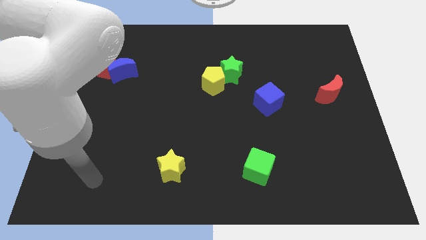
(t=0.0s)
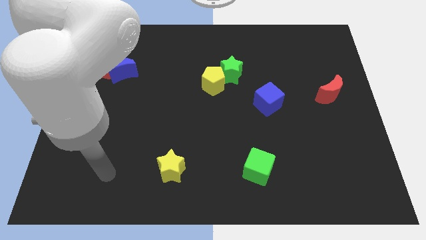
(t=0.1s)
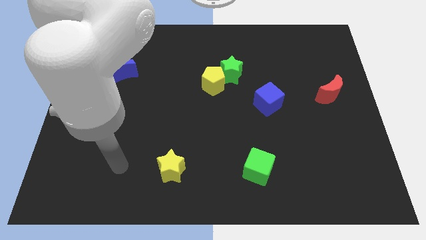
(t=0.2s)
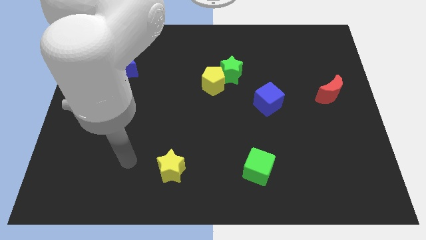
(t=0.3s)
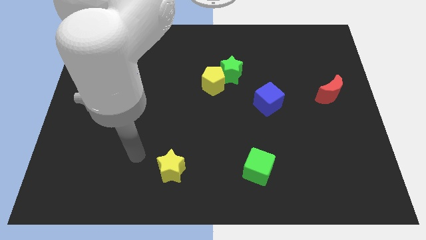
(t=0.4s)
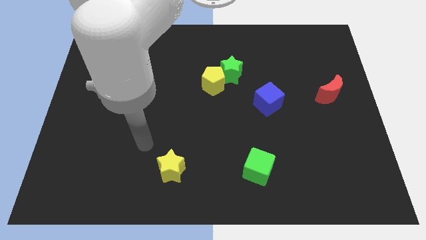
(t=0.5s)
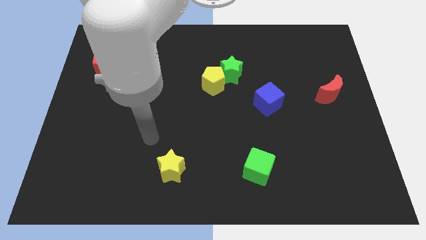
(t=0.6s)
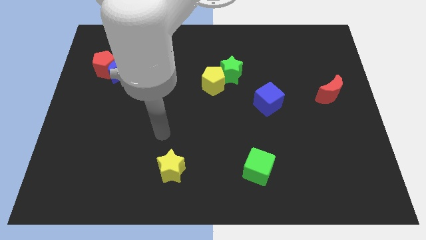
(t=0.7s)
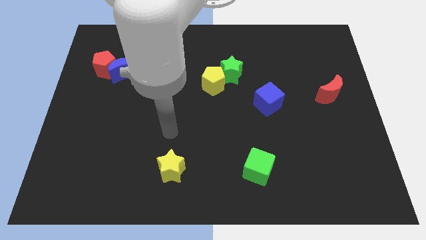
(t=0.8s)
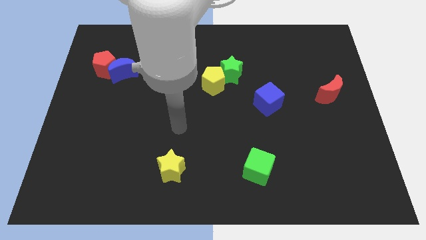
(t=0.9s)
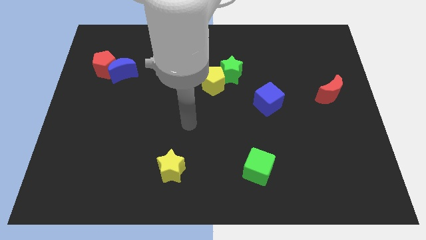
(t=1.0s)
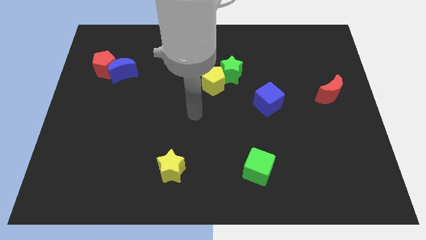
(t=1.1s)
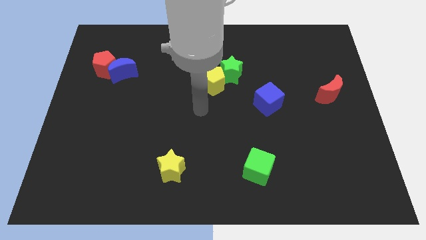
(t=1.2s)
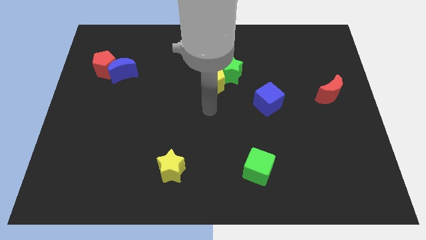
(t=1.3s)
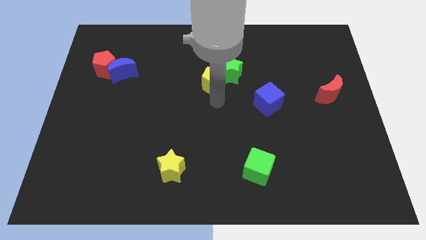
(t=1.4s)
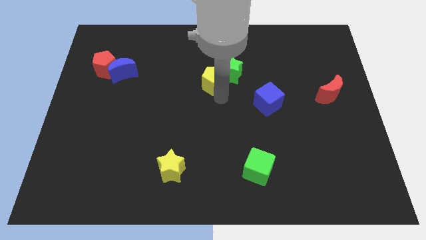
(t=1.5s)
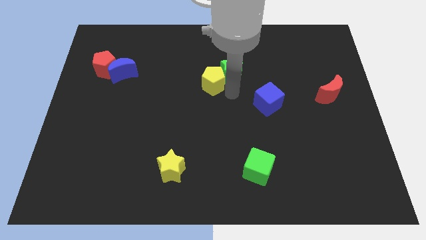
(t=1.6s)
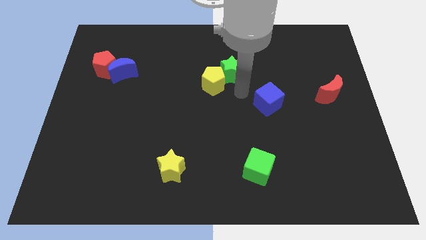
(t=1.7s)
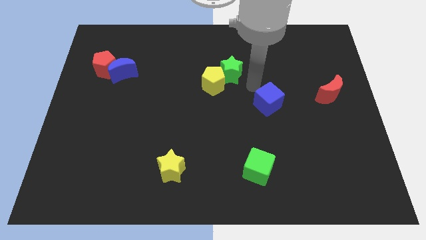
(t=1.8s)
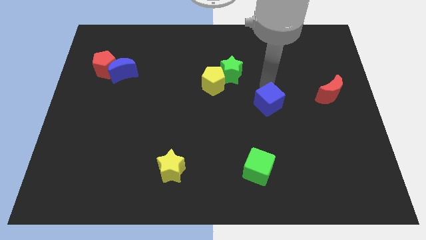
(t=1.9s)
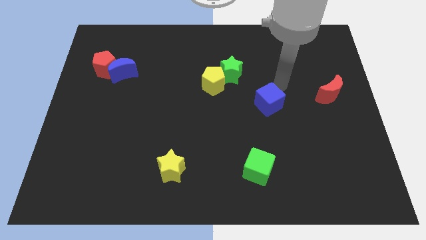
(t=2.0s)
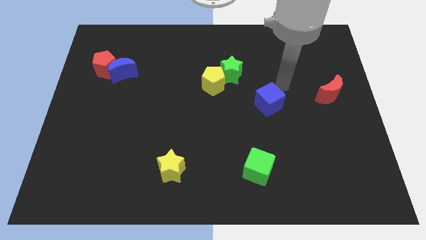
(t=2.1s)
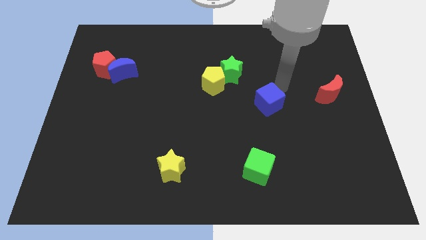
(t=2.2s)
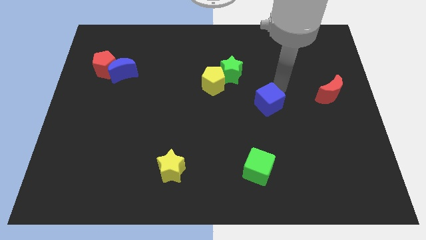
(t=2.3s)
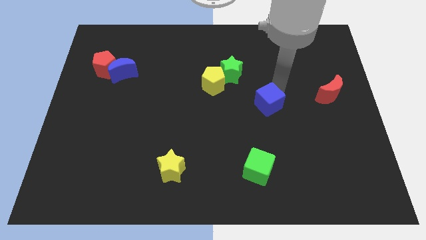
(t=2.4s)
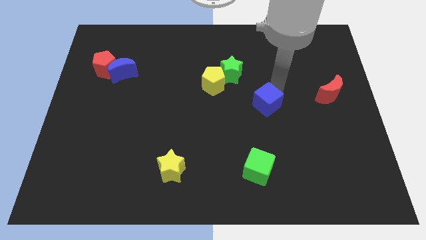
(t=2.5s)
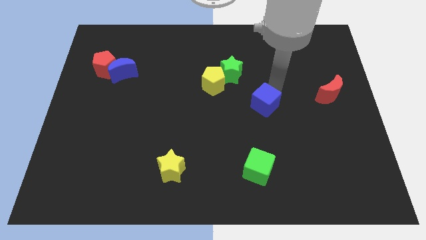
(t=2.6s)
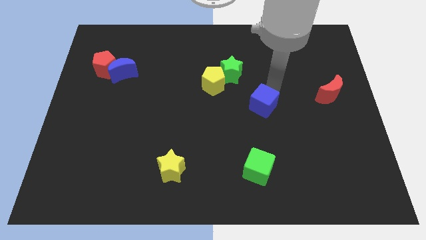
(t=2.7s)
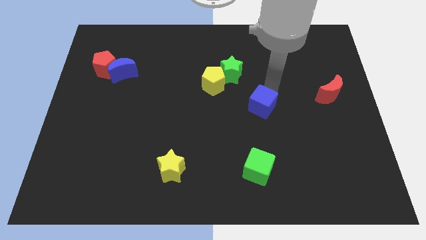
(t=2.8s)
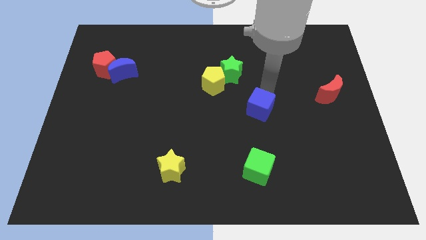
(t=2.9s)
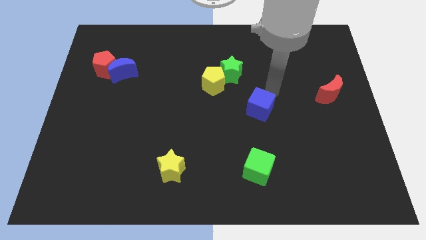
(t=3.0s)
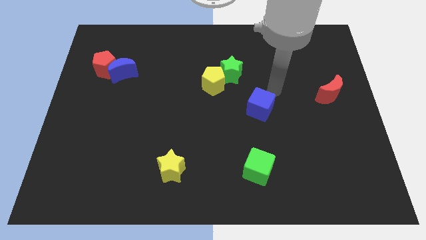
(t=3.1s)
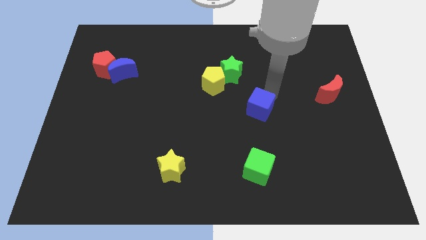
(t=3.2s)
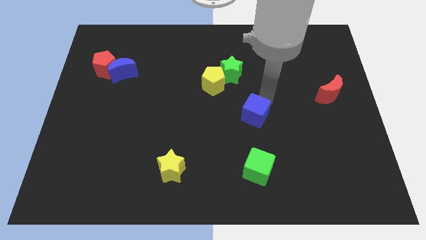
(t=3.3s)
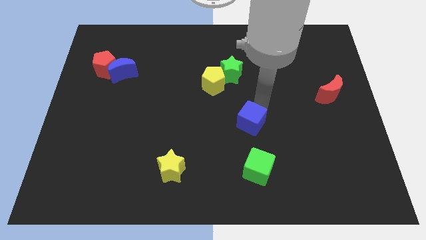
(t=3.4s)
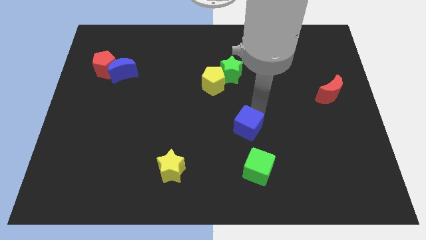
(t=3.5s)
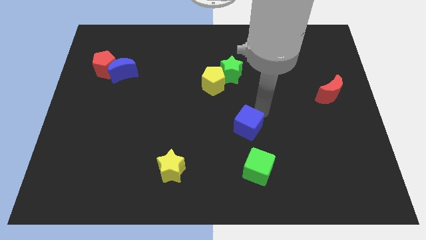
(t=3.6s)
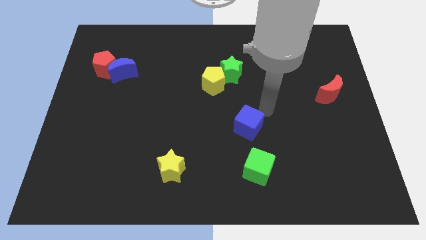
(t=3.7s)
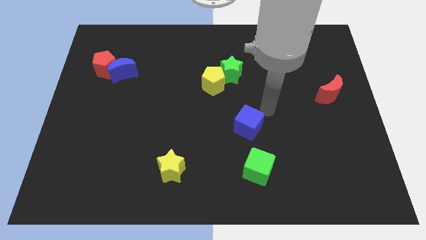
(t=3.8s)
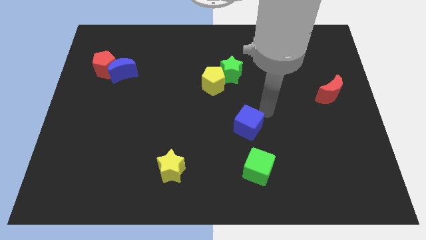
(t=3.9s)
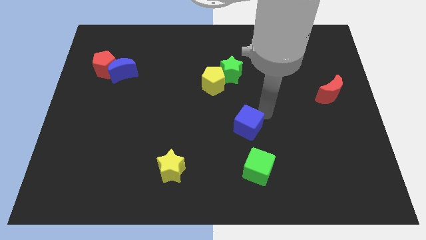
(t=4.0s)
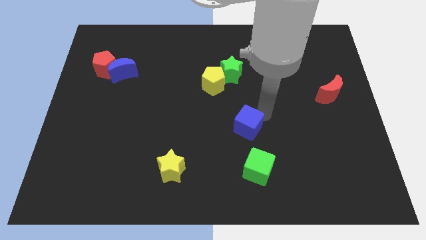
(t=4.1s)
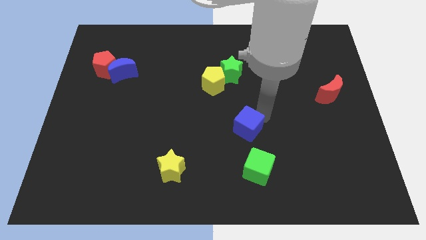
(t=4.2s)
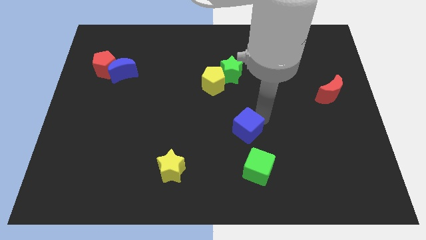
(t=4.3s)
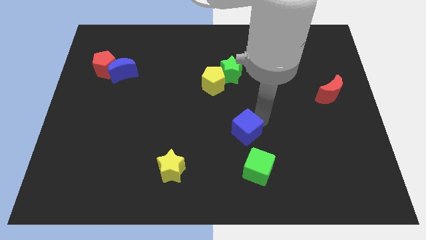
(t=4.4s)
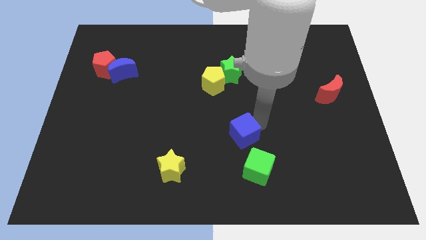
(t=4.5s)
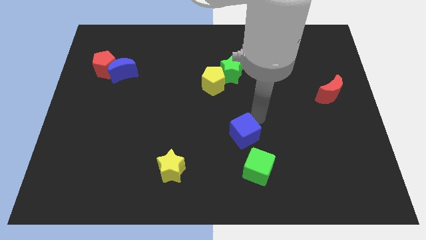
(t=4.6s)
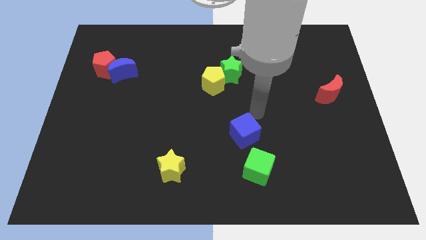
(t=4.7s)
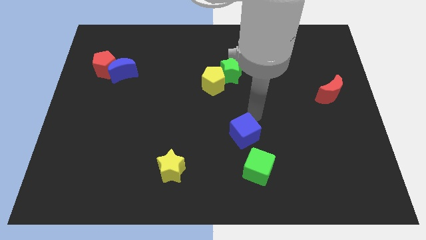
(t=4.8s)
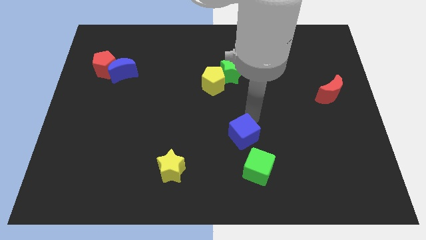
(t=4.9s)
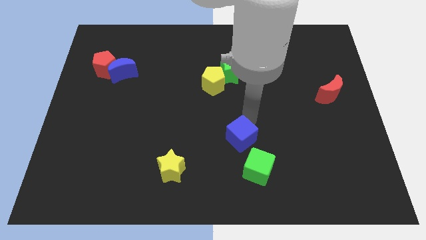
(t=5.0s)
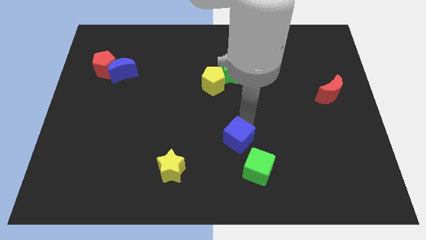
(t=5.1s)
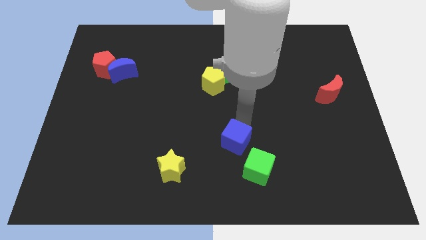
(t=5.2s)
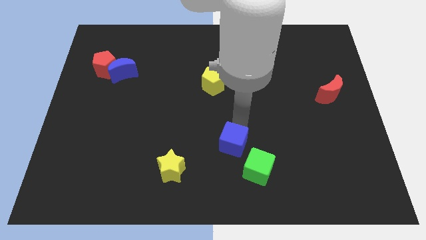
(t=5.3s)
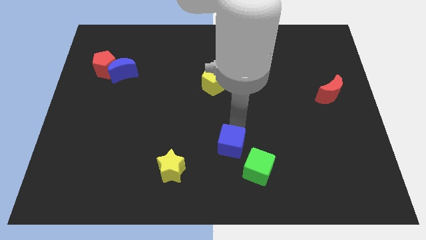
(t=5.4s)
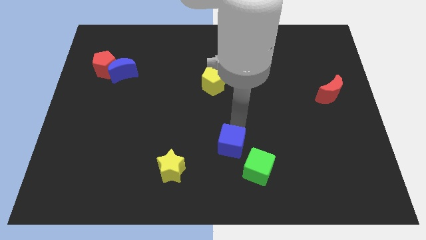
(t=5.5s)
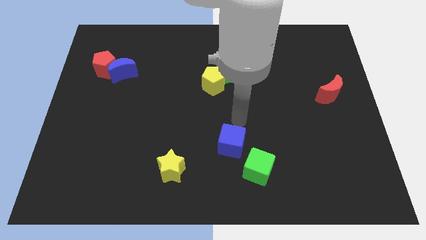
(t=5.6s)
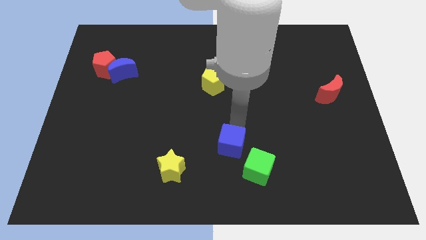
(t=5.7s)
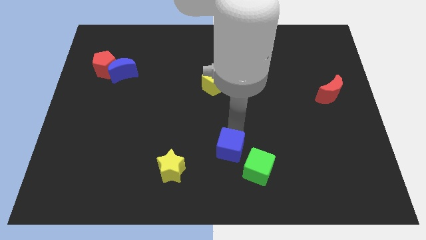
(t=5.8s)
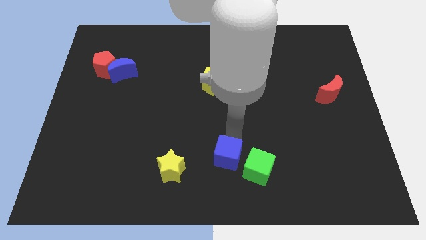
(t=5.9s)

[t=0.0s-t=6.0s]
push the blue cube just right of the yellow star
